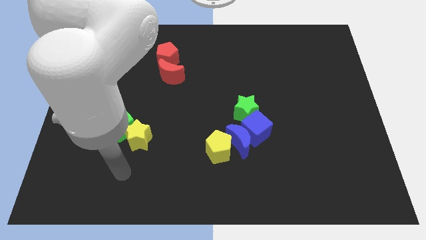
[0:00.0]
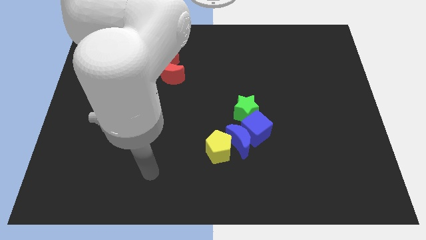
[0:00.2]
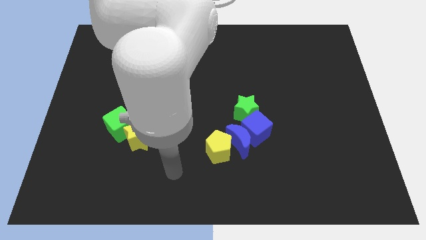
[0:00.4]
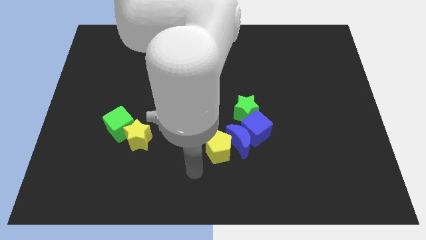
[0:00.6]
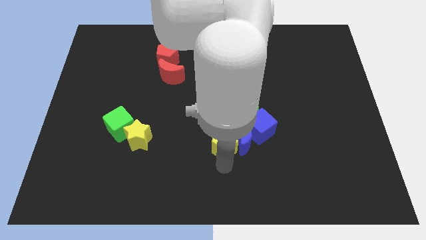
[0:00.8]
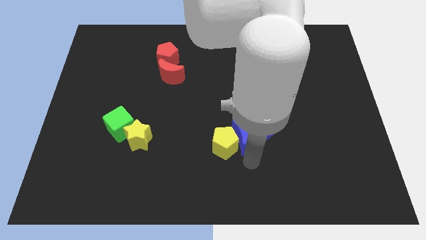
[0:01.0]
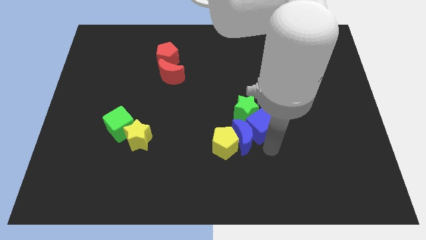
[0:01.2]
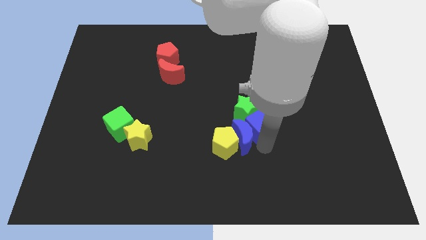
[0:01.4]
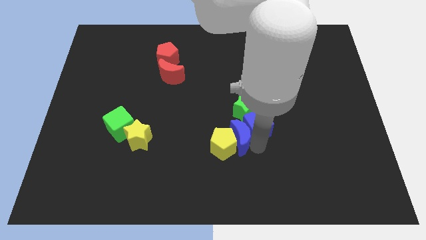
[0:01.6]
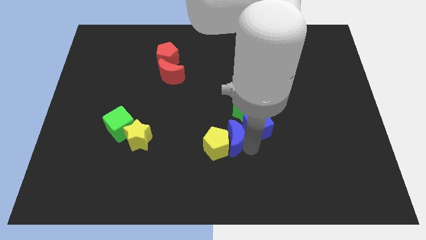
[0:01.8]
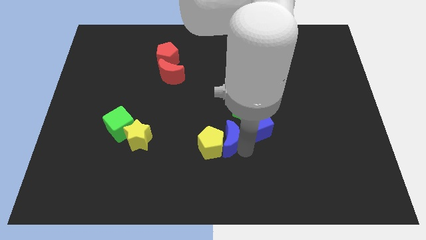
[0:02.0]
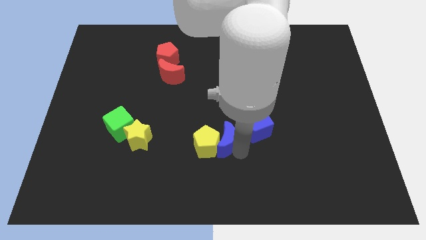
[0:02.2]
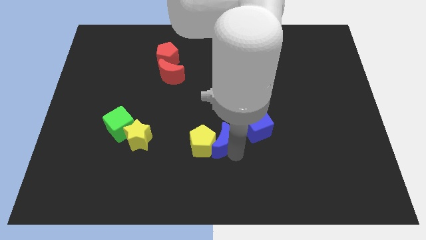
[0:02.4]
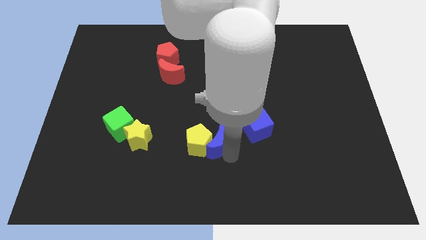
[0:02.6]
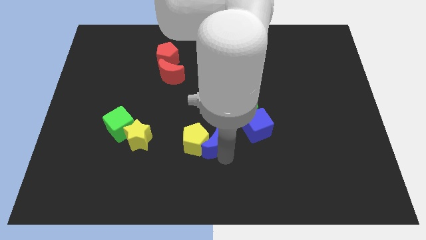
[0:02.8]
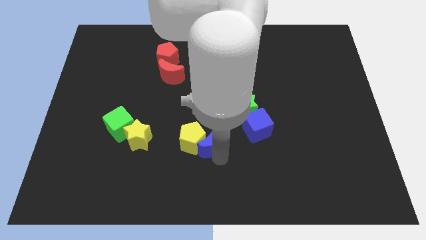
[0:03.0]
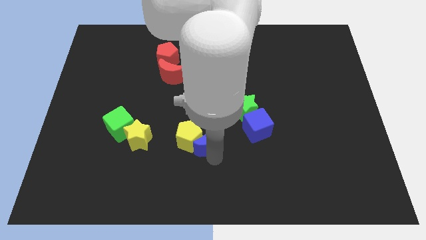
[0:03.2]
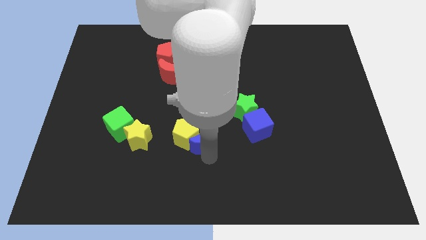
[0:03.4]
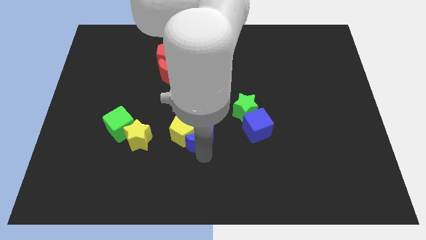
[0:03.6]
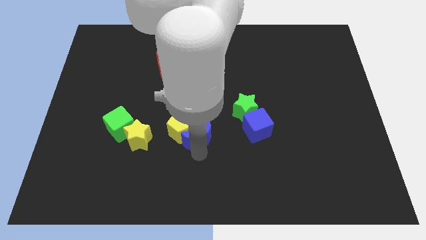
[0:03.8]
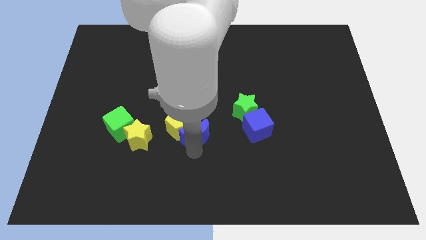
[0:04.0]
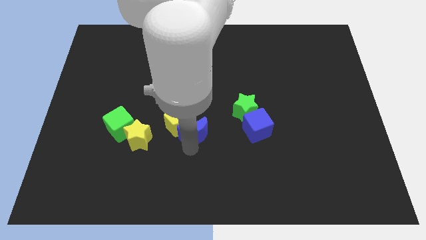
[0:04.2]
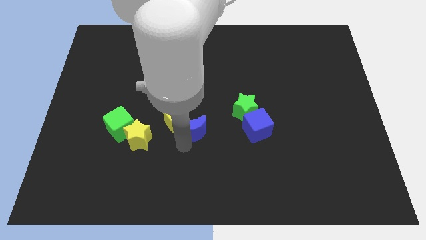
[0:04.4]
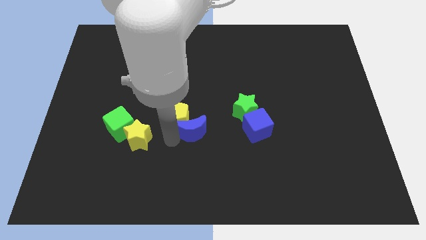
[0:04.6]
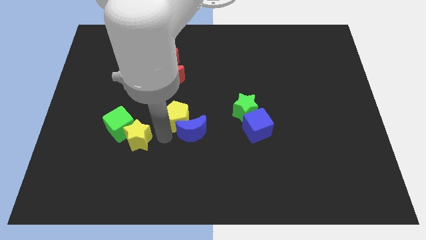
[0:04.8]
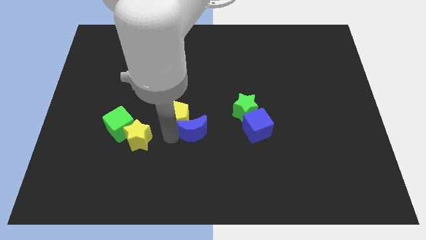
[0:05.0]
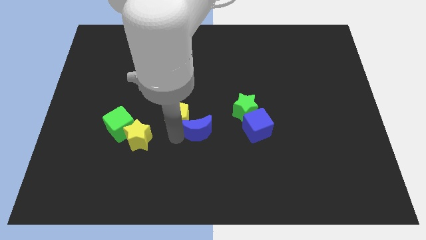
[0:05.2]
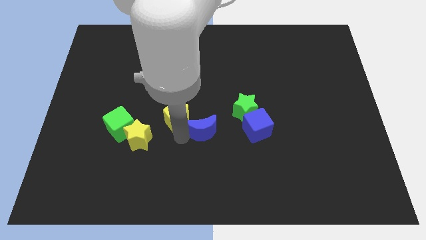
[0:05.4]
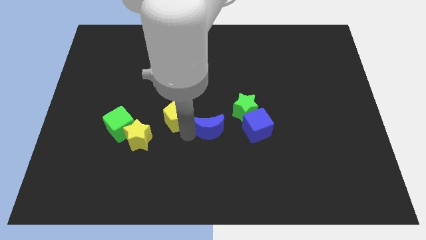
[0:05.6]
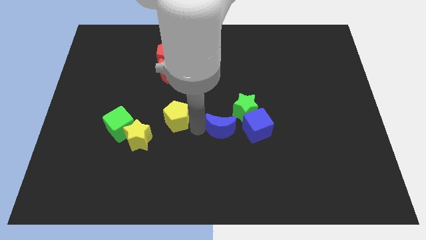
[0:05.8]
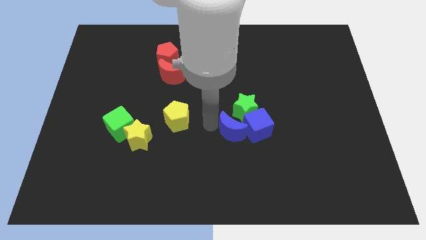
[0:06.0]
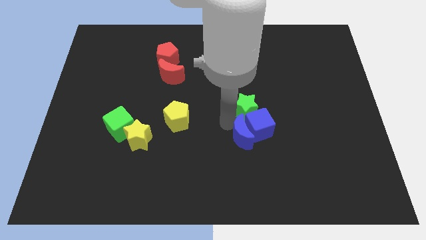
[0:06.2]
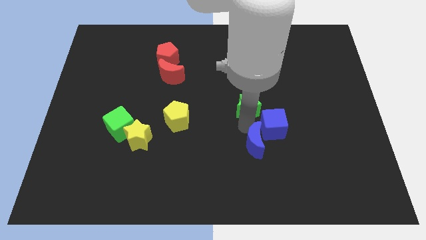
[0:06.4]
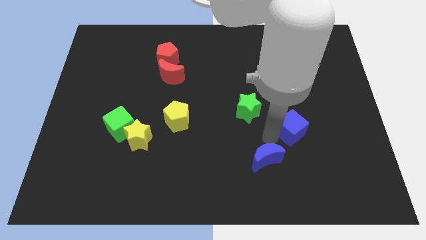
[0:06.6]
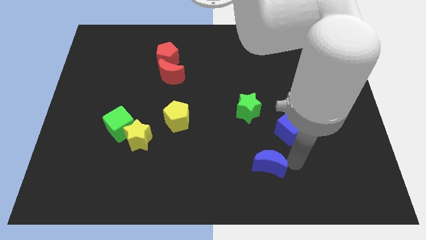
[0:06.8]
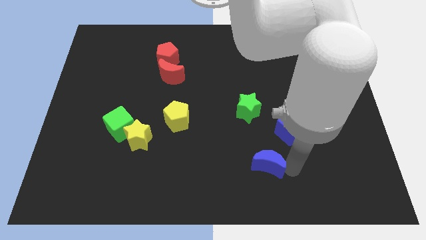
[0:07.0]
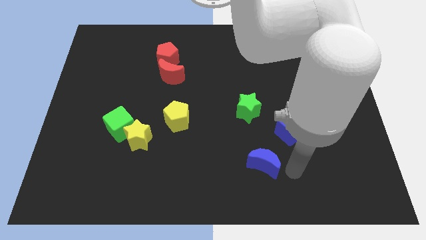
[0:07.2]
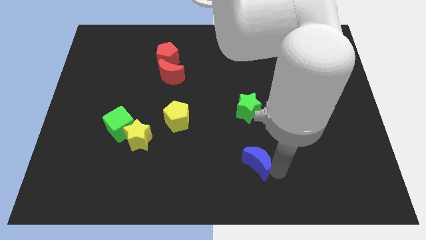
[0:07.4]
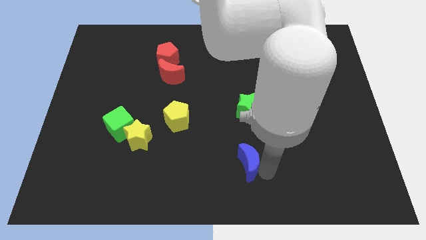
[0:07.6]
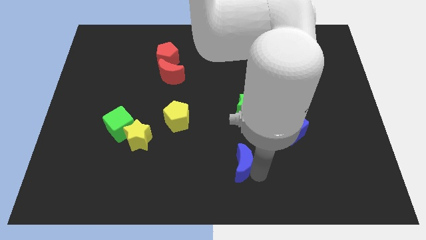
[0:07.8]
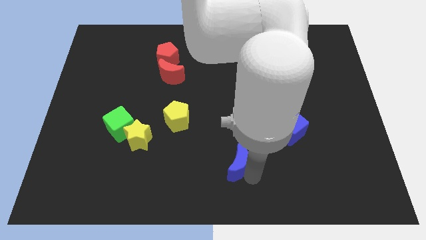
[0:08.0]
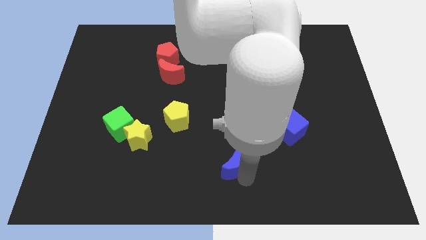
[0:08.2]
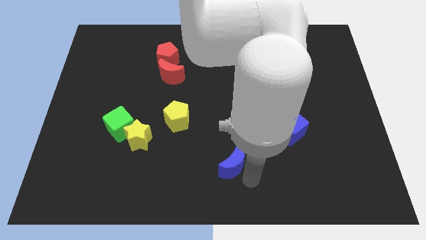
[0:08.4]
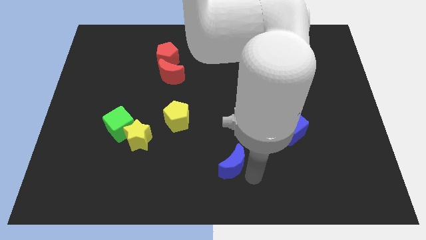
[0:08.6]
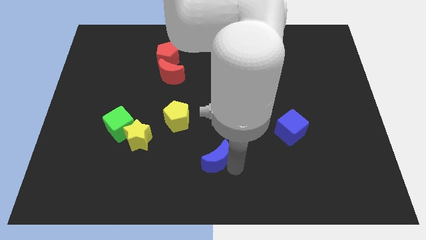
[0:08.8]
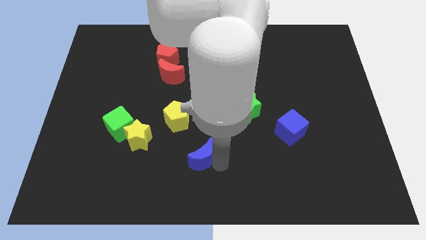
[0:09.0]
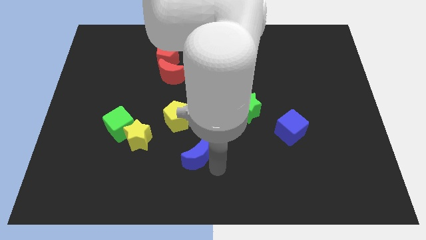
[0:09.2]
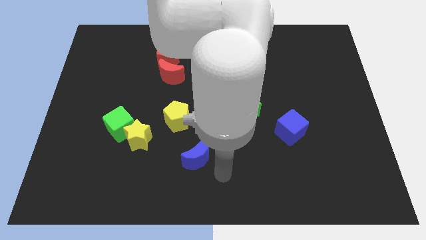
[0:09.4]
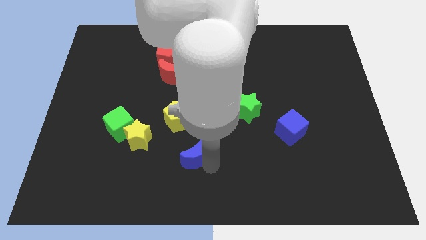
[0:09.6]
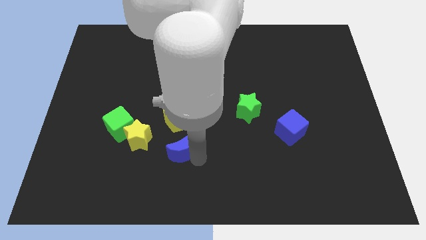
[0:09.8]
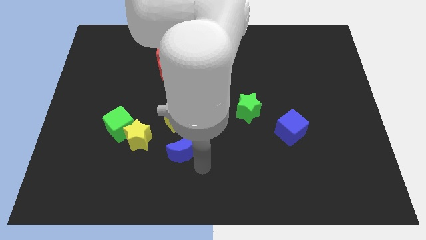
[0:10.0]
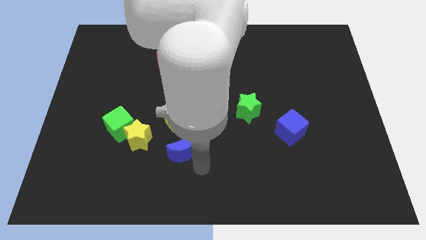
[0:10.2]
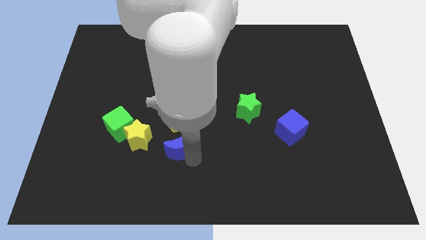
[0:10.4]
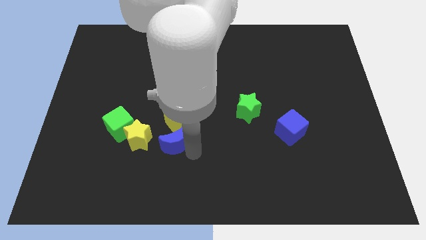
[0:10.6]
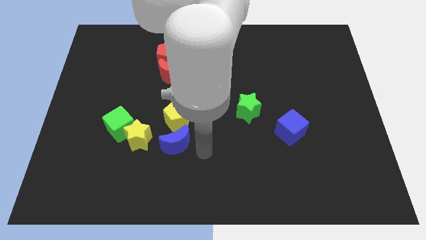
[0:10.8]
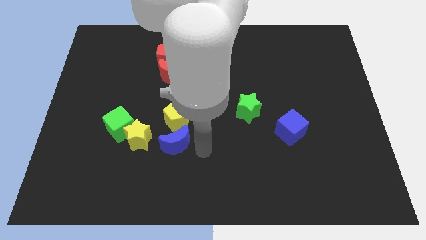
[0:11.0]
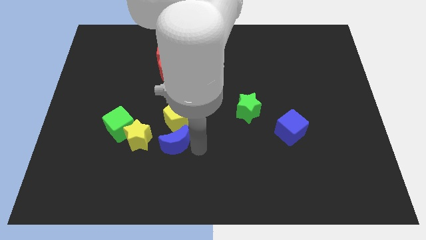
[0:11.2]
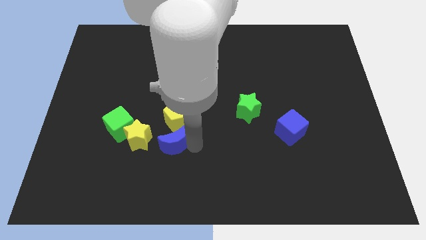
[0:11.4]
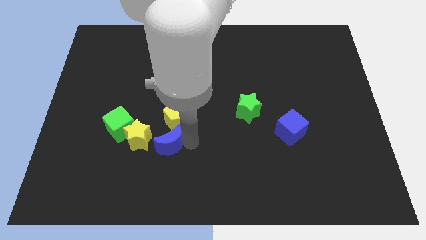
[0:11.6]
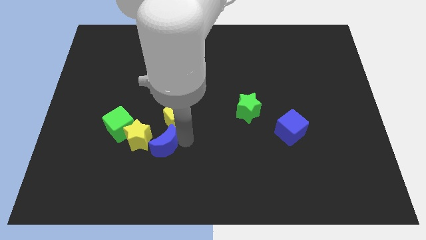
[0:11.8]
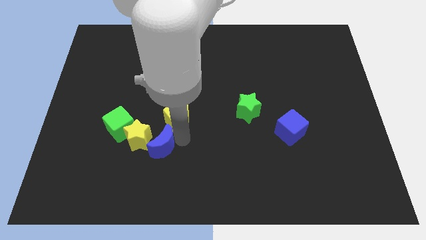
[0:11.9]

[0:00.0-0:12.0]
put the blue moon close to the yellow star
